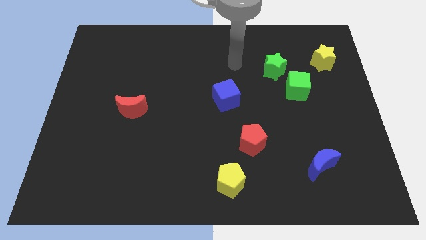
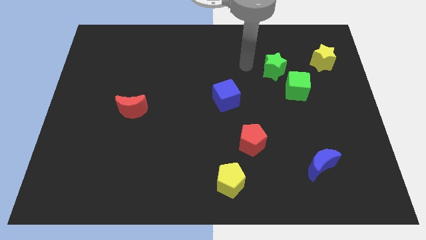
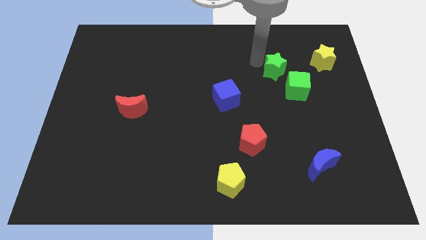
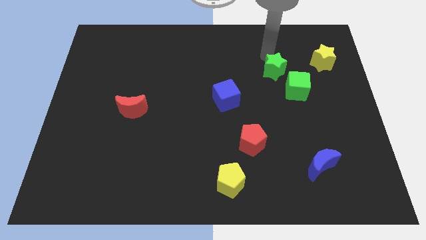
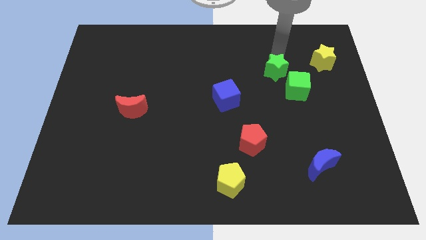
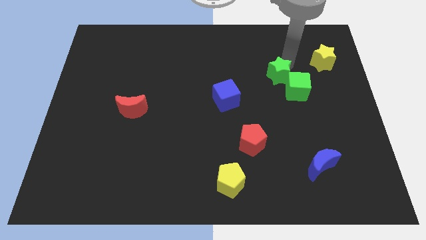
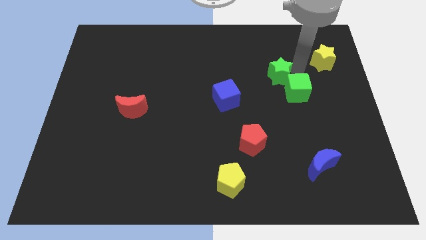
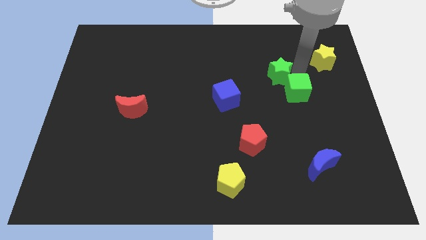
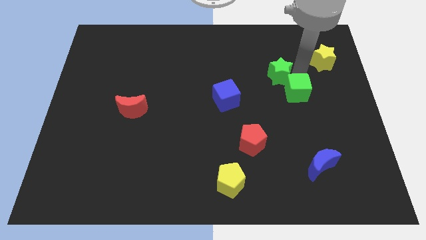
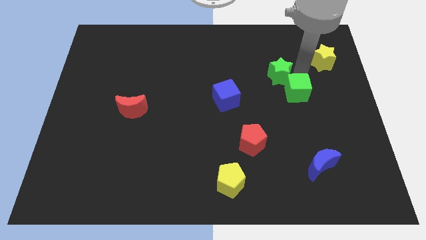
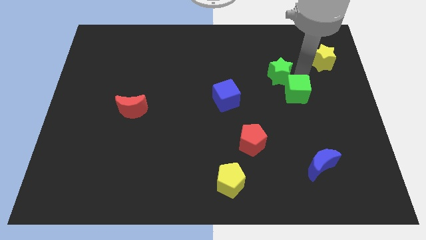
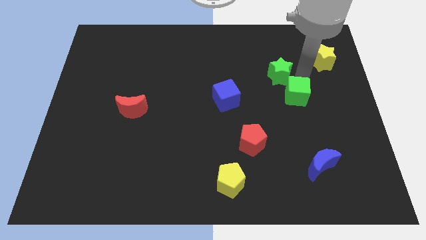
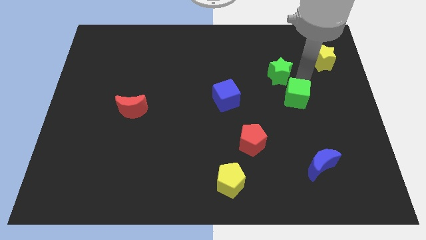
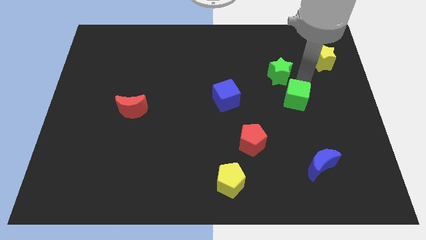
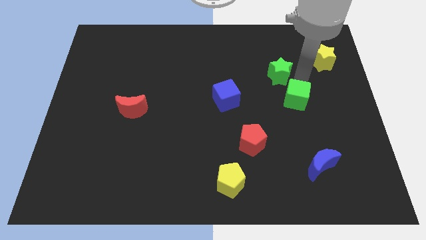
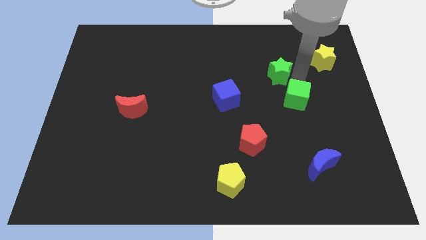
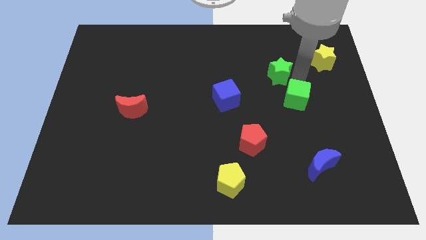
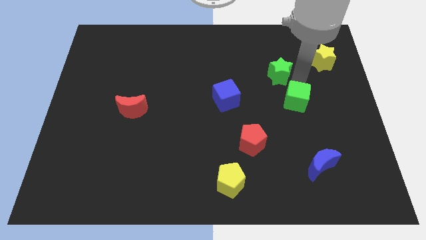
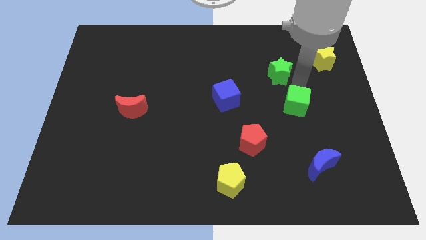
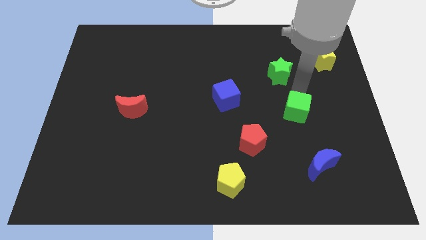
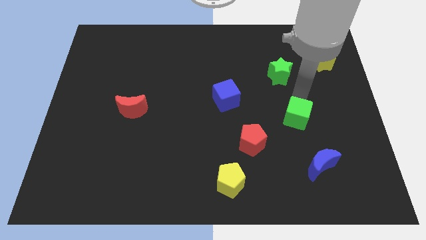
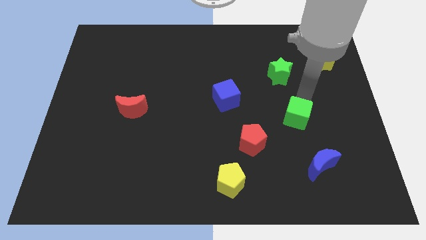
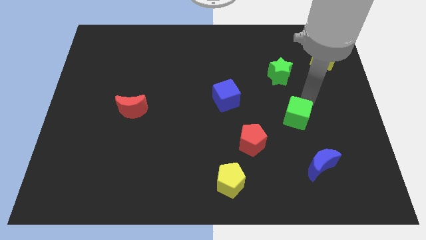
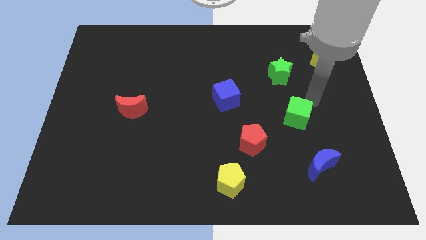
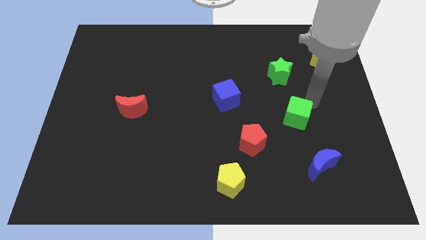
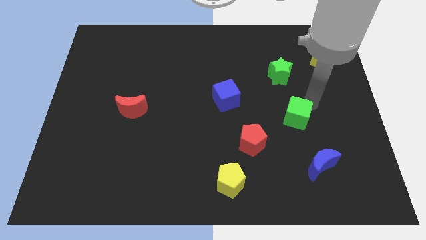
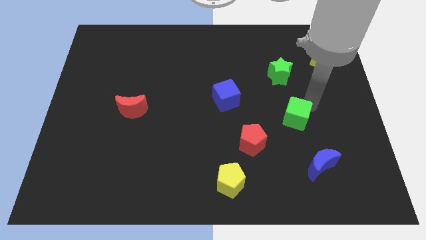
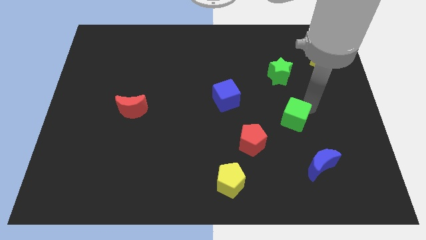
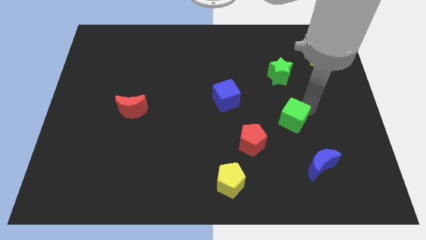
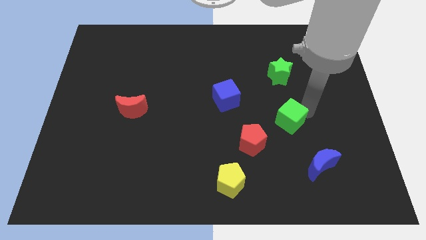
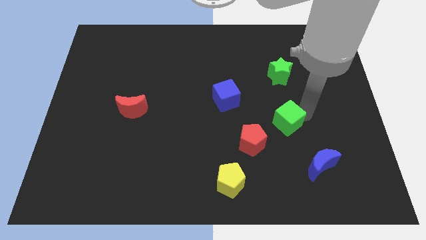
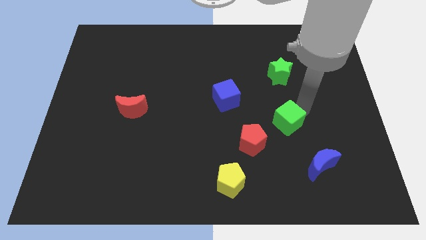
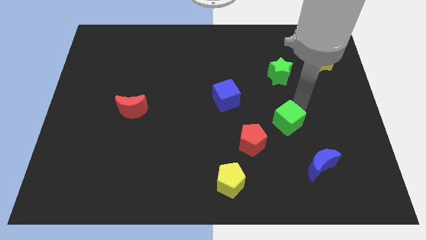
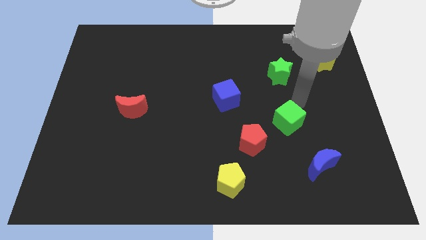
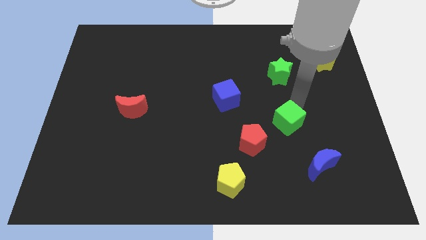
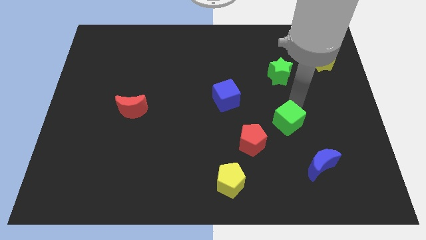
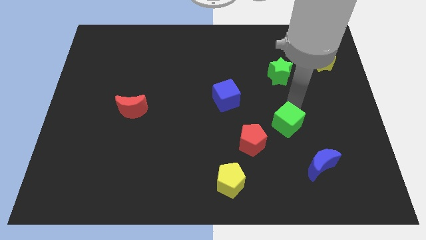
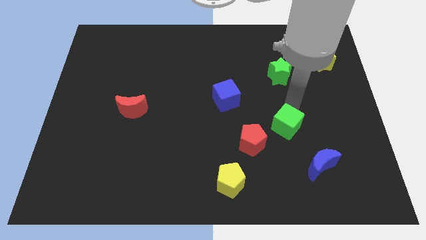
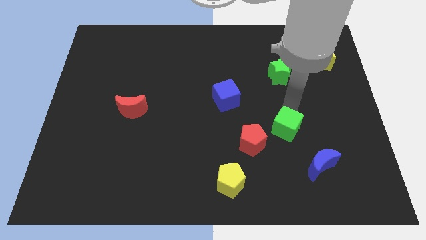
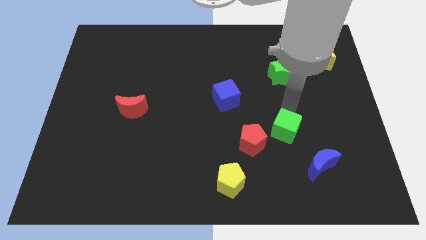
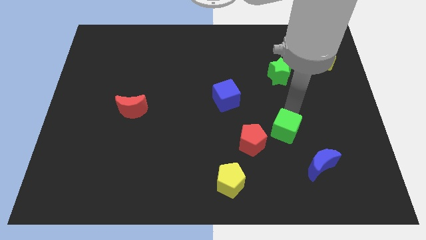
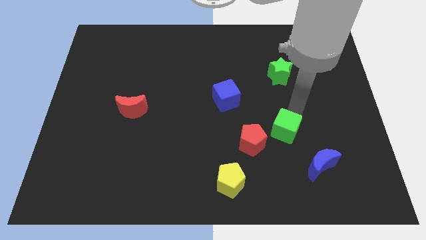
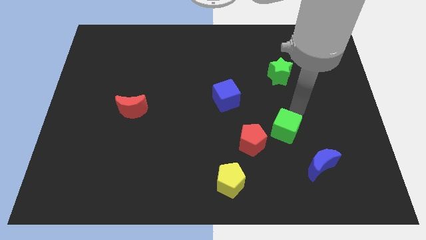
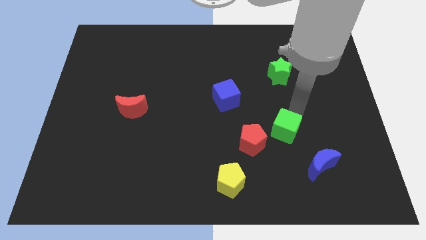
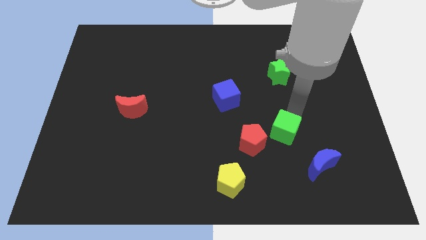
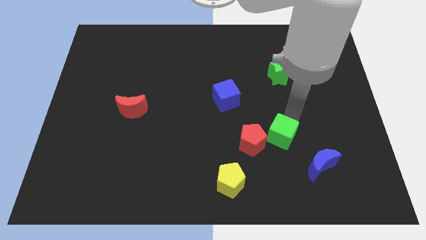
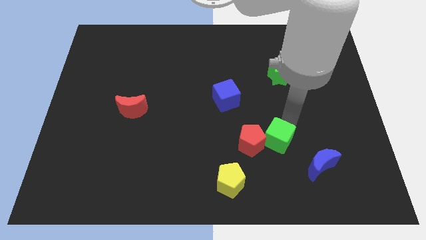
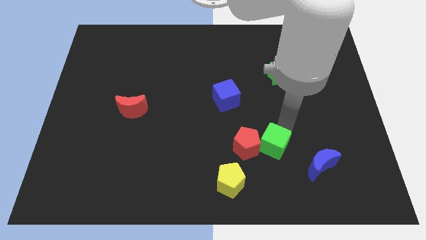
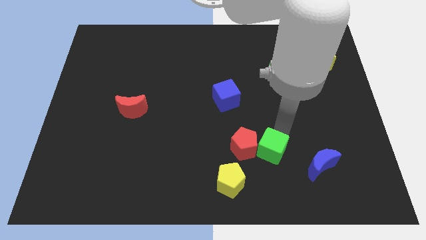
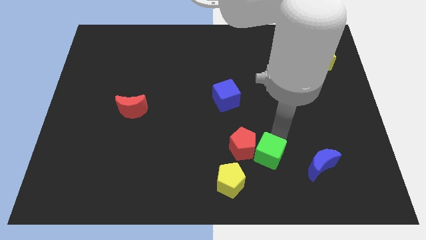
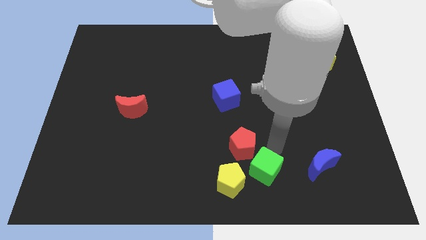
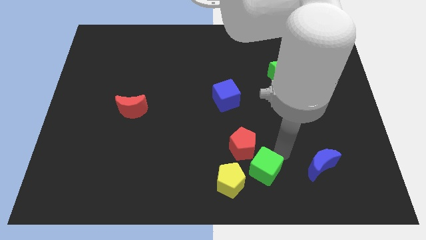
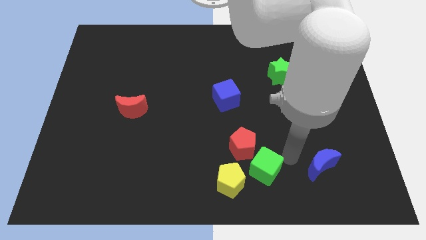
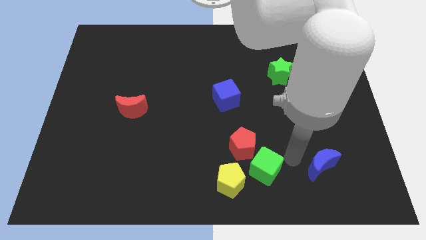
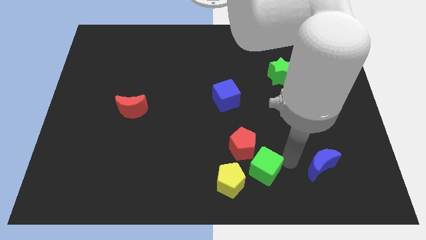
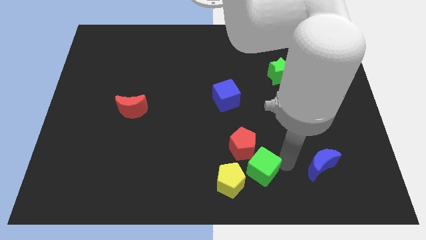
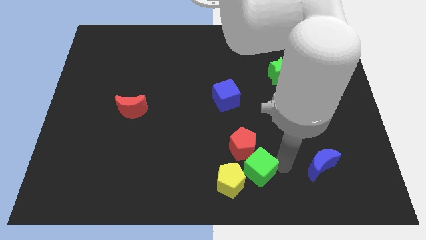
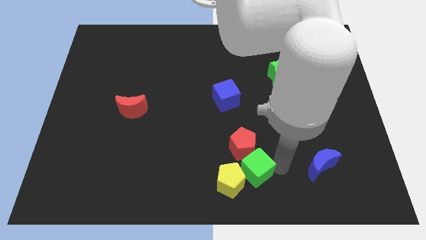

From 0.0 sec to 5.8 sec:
slide the green cube towards the yellow pentagon

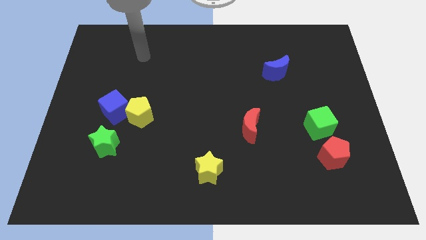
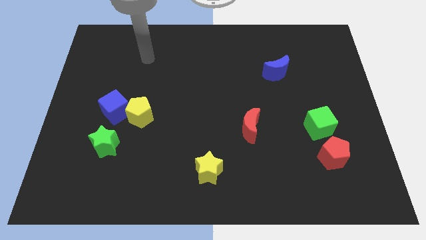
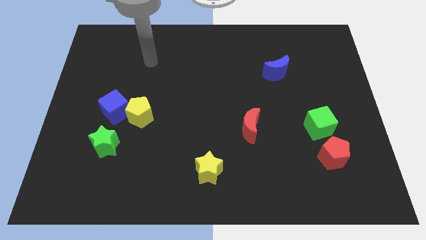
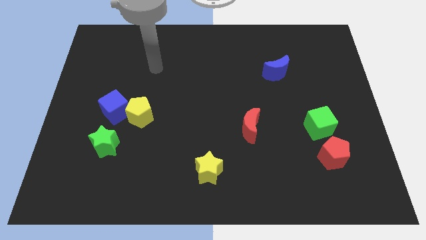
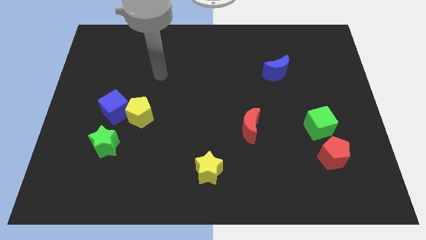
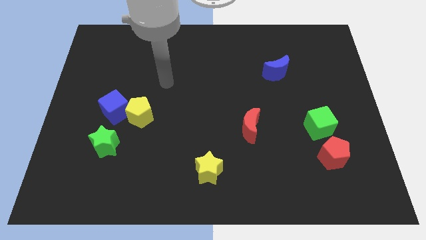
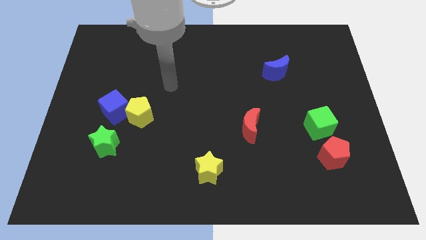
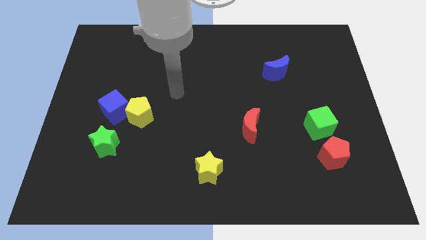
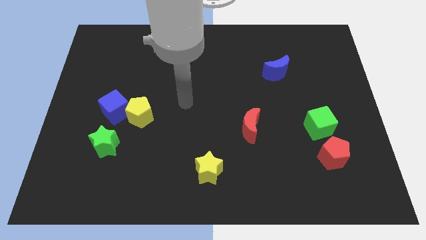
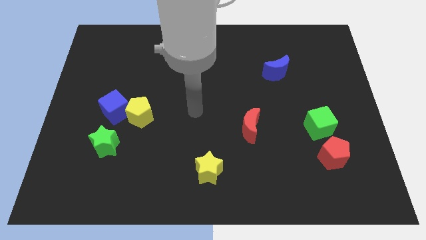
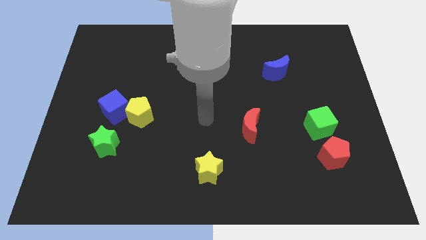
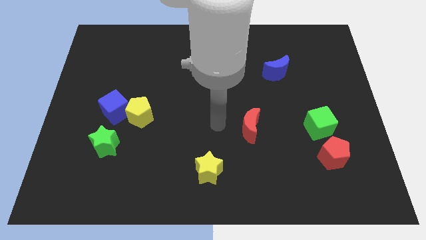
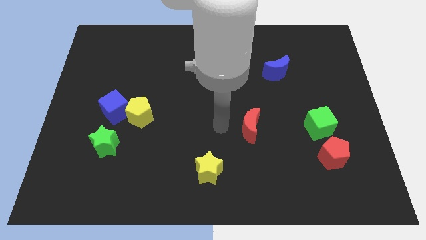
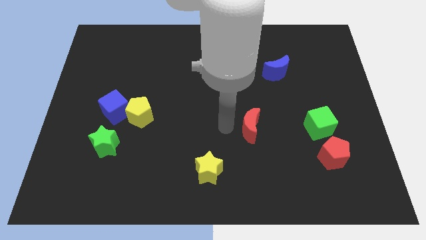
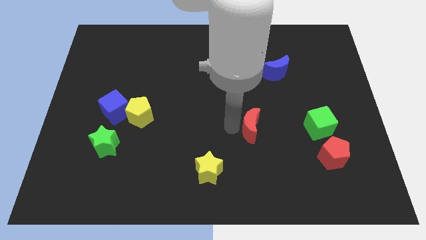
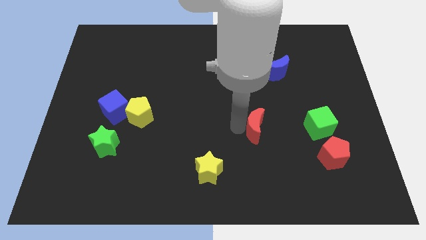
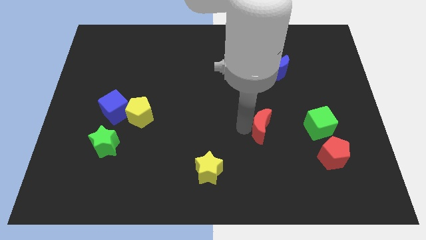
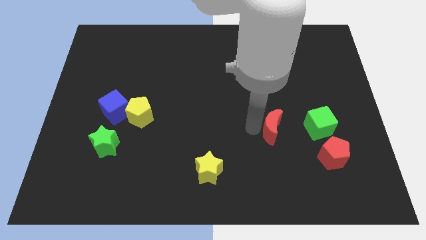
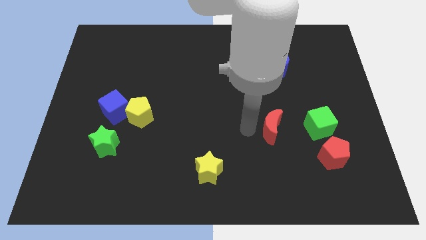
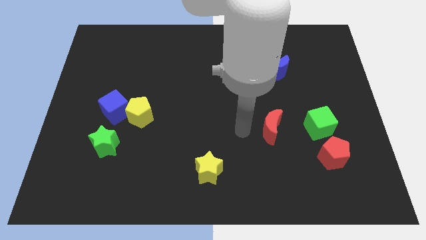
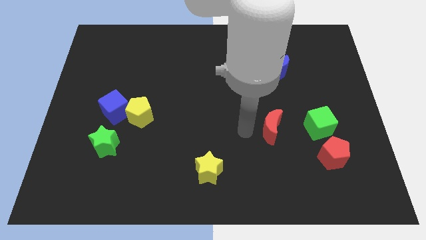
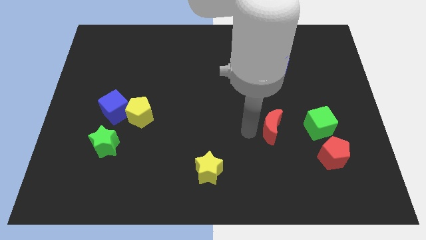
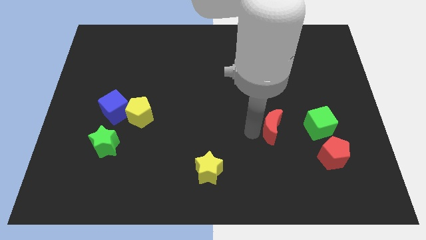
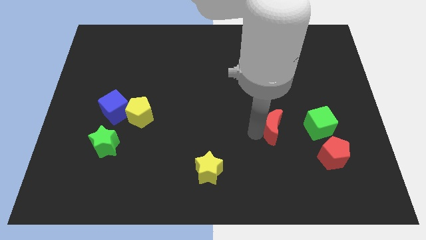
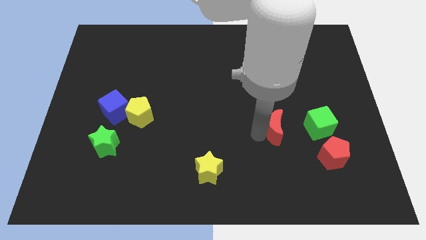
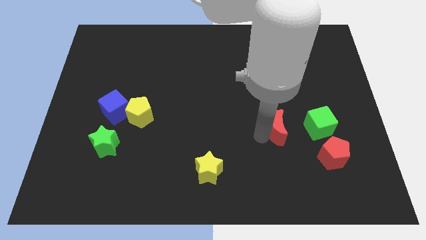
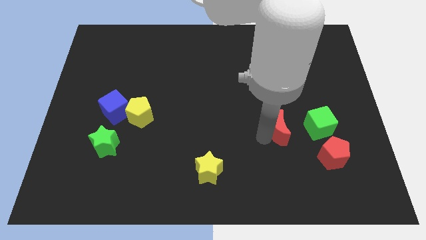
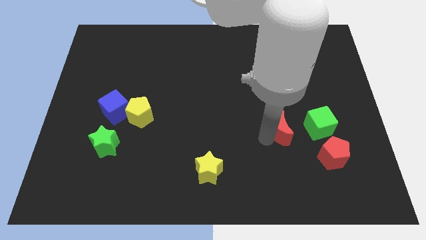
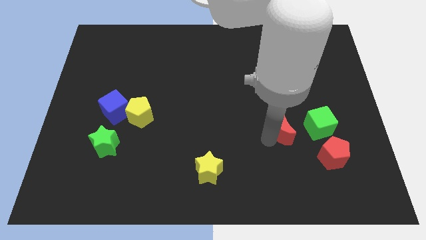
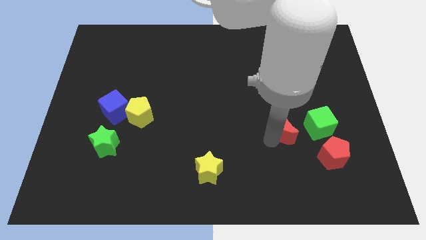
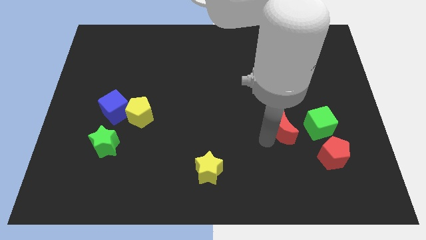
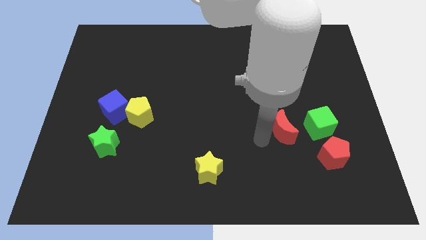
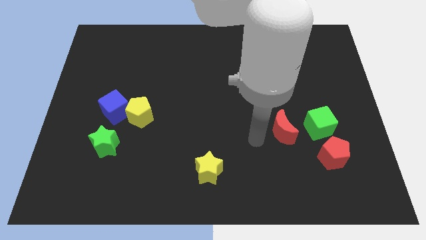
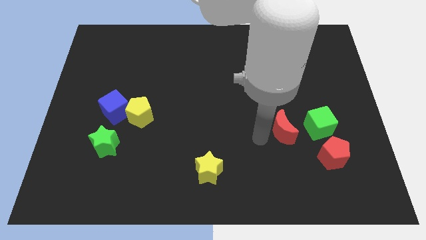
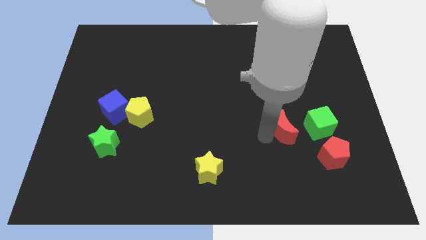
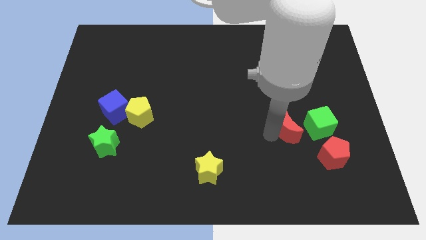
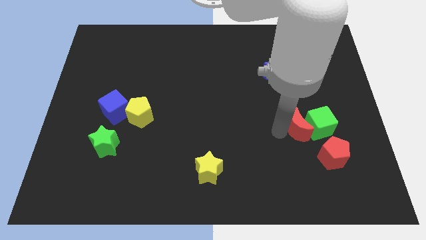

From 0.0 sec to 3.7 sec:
slide the red moon close to the green cube
